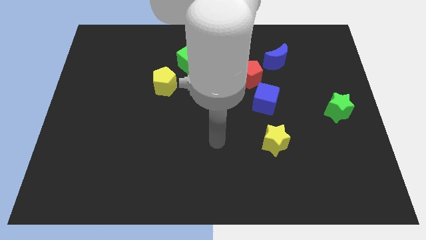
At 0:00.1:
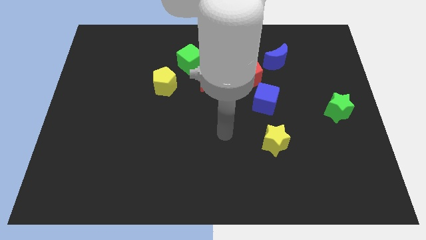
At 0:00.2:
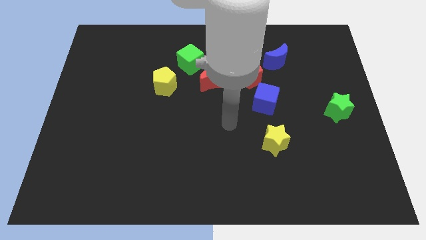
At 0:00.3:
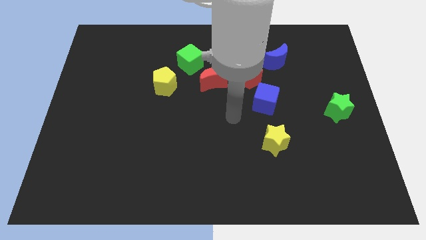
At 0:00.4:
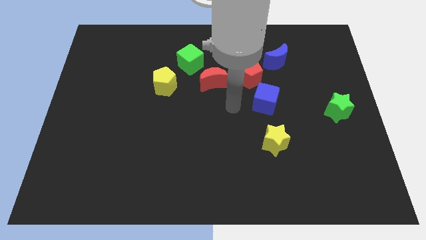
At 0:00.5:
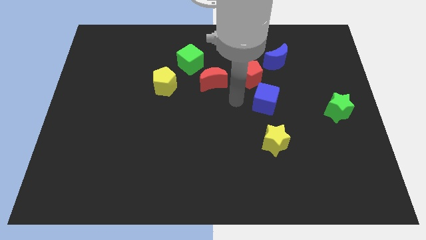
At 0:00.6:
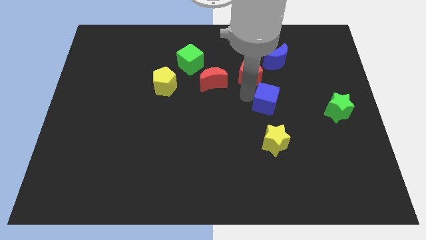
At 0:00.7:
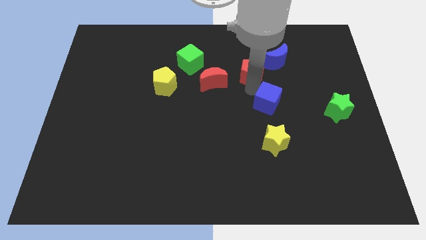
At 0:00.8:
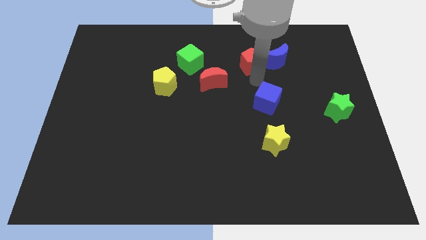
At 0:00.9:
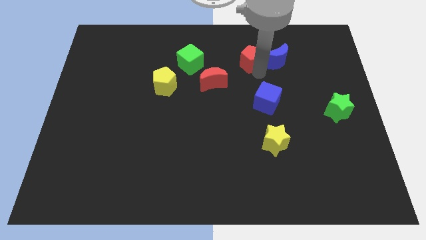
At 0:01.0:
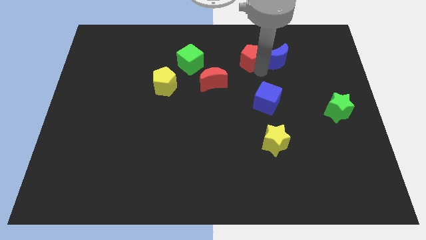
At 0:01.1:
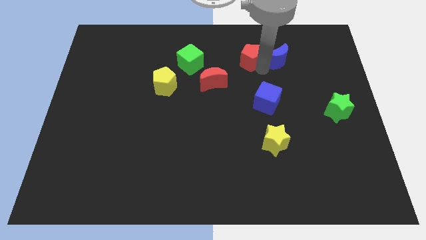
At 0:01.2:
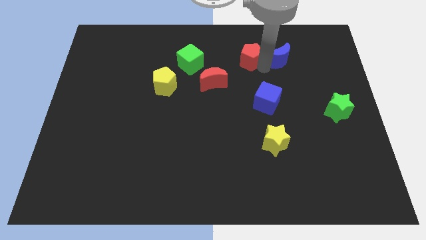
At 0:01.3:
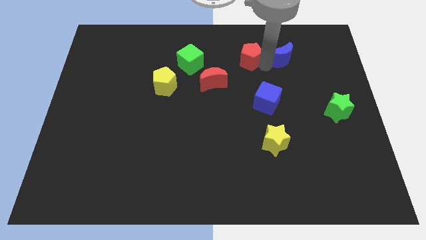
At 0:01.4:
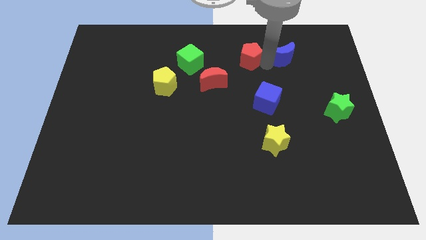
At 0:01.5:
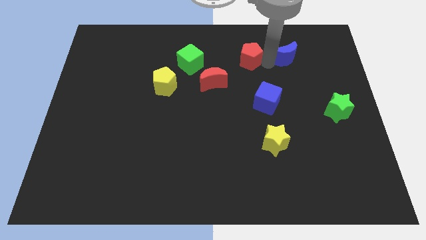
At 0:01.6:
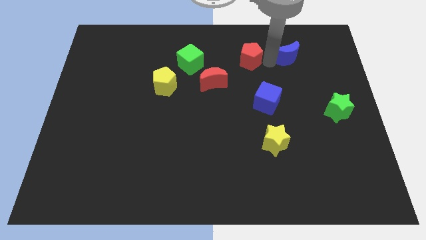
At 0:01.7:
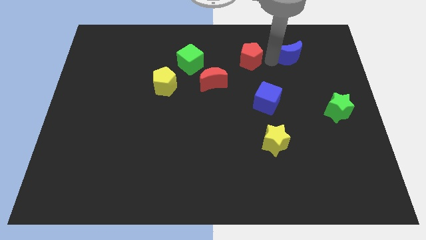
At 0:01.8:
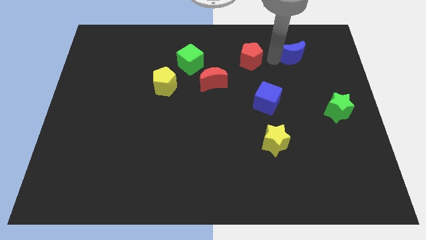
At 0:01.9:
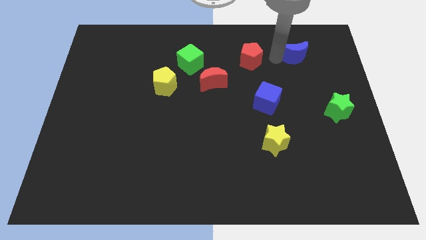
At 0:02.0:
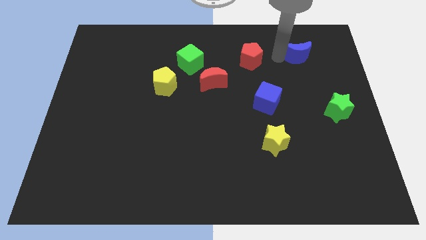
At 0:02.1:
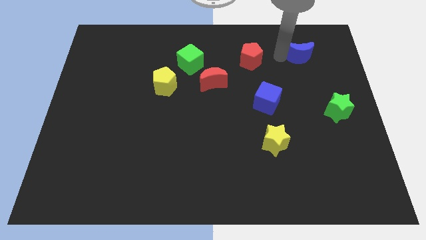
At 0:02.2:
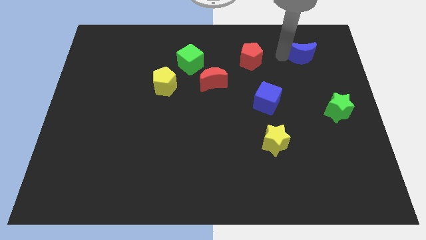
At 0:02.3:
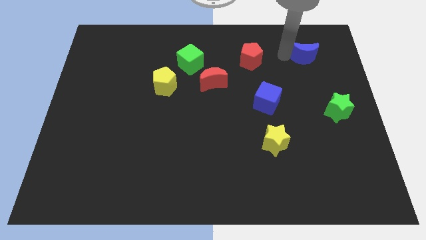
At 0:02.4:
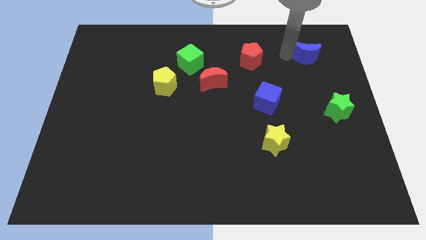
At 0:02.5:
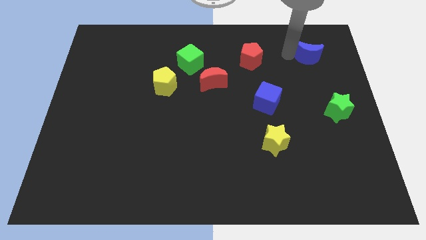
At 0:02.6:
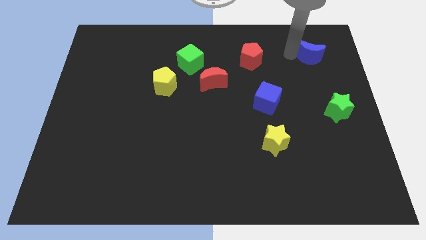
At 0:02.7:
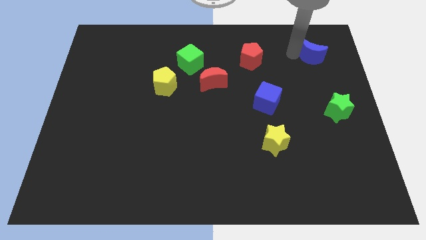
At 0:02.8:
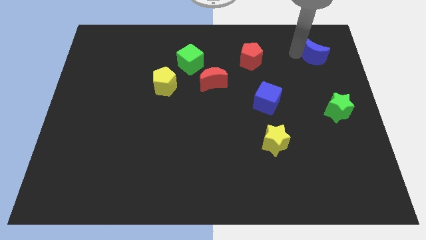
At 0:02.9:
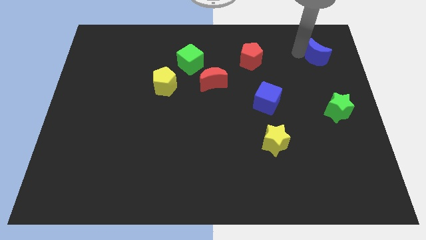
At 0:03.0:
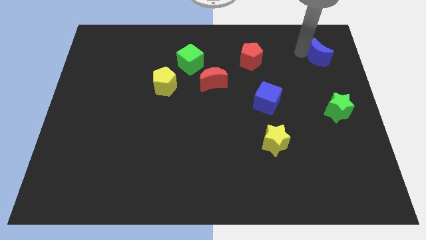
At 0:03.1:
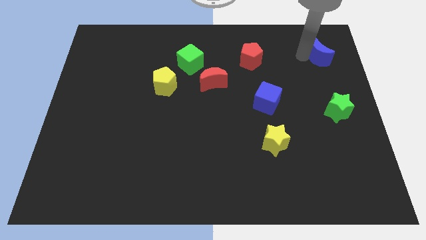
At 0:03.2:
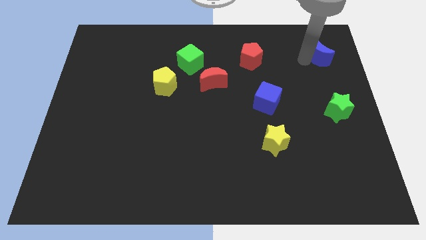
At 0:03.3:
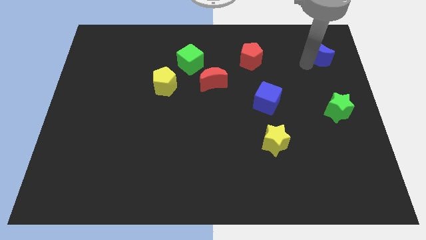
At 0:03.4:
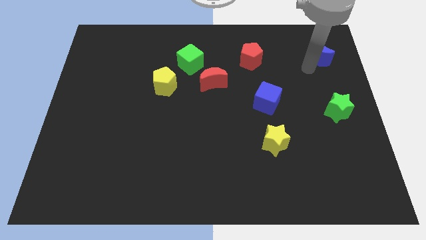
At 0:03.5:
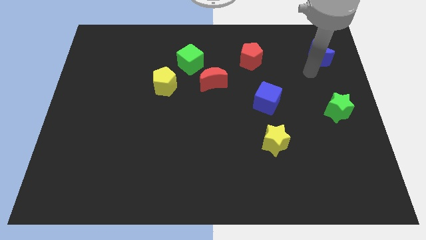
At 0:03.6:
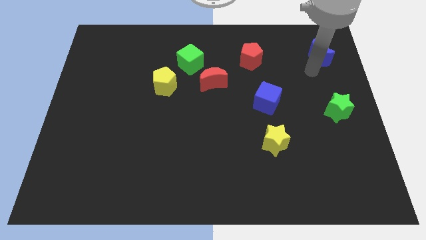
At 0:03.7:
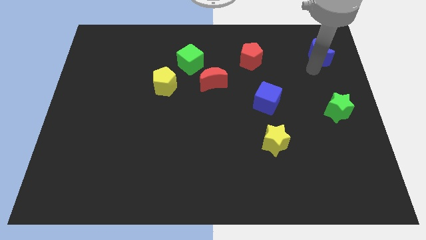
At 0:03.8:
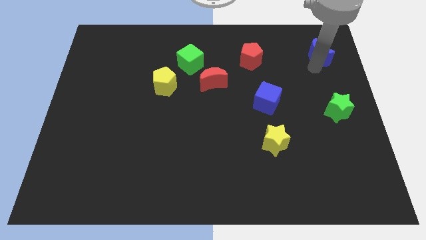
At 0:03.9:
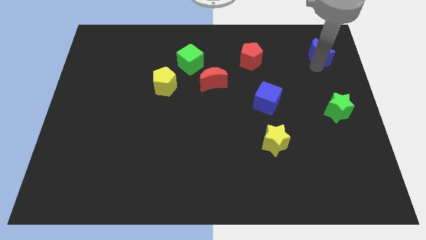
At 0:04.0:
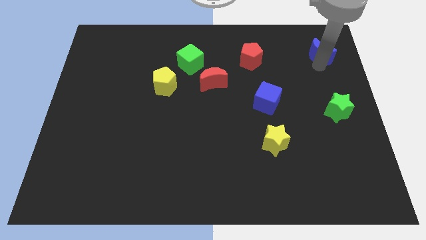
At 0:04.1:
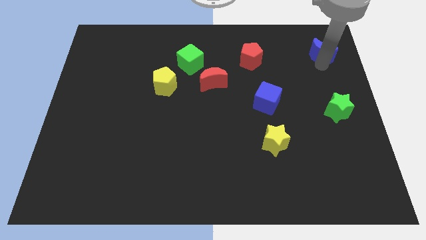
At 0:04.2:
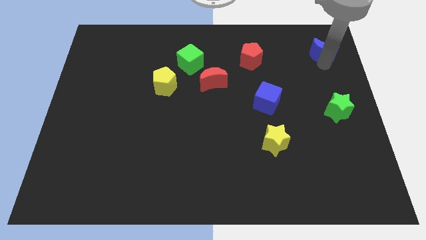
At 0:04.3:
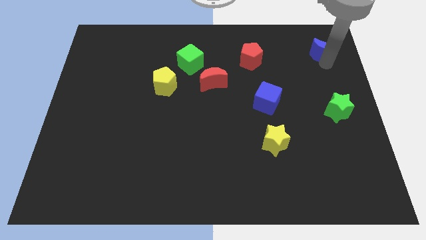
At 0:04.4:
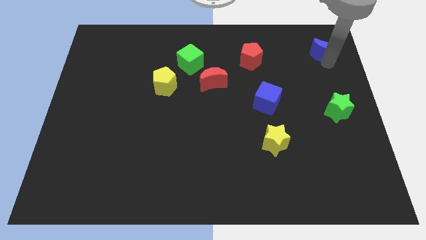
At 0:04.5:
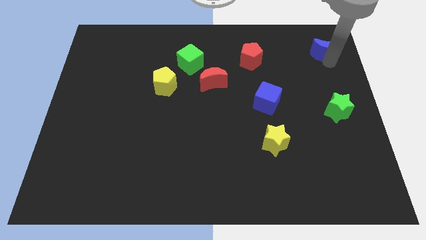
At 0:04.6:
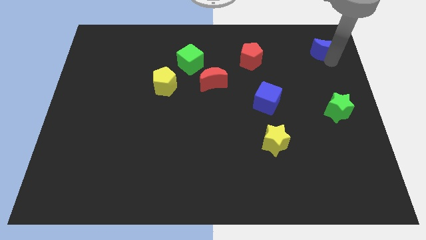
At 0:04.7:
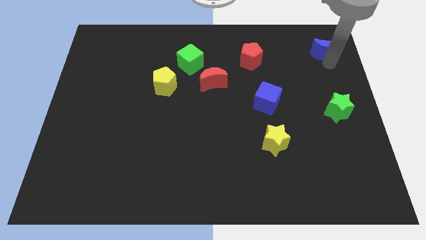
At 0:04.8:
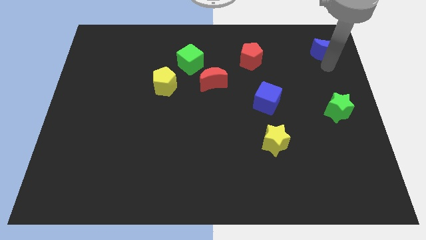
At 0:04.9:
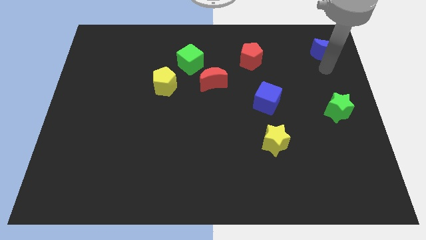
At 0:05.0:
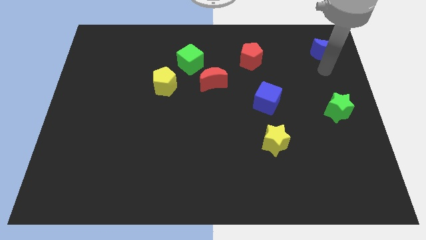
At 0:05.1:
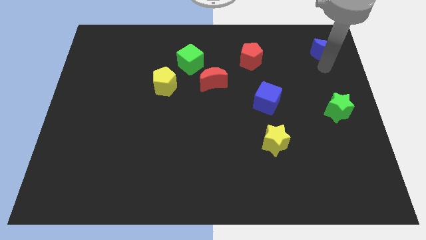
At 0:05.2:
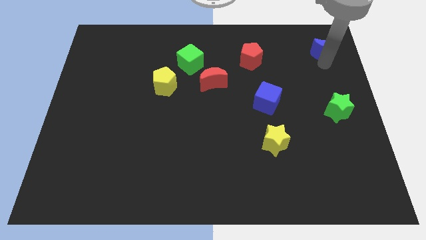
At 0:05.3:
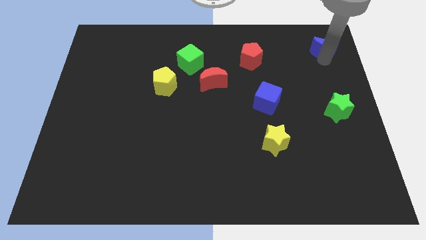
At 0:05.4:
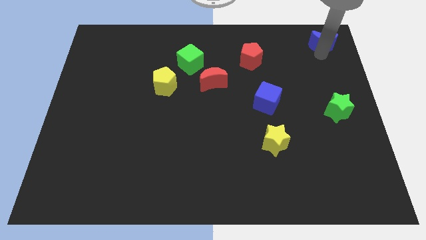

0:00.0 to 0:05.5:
put the blue moon to the top right corner

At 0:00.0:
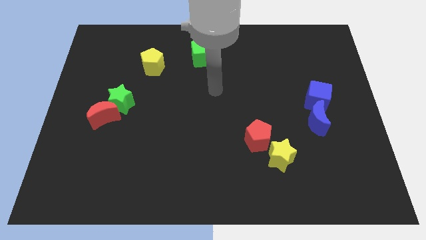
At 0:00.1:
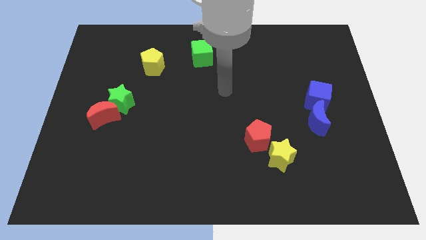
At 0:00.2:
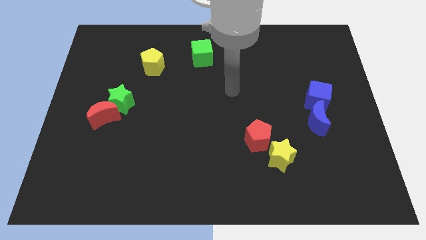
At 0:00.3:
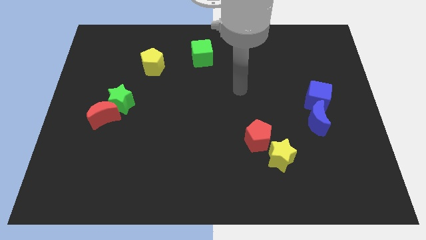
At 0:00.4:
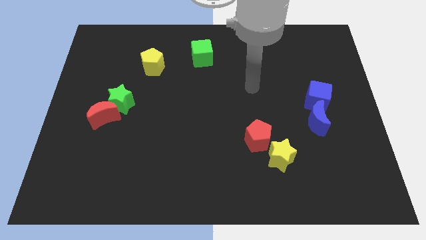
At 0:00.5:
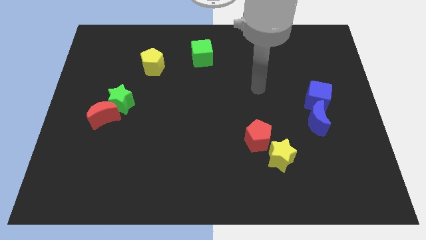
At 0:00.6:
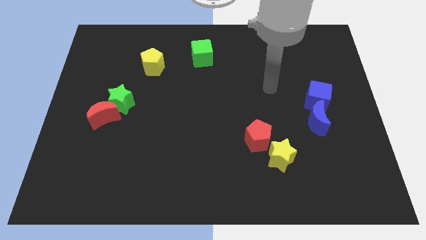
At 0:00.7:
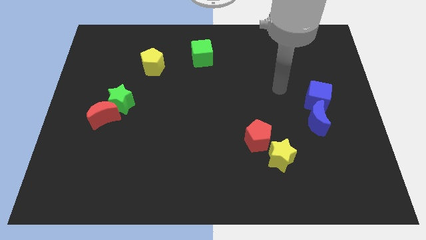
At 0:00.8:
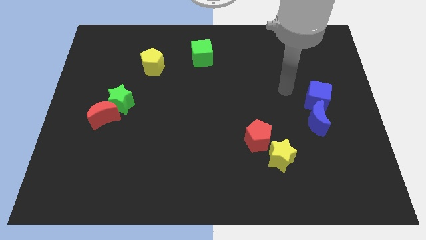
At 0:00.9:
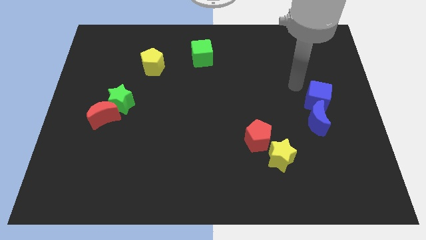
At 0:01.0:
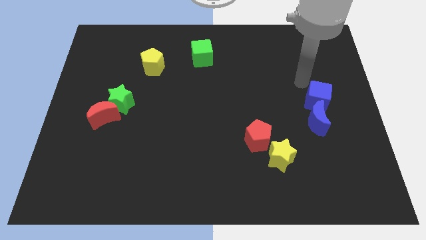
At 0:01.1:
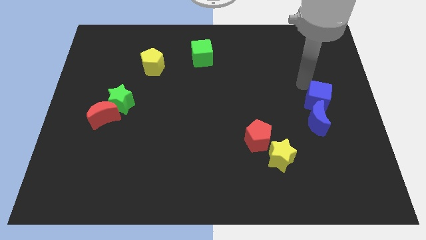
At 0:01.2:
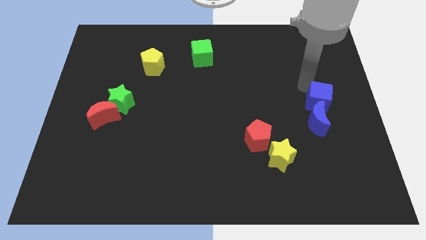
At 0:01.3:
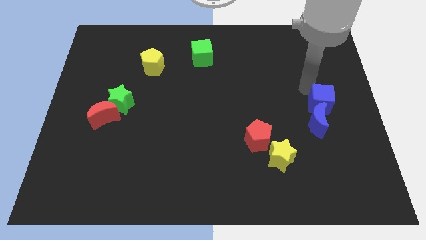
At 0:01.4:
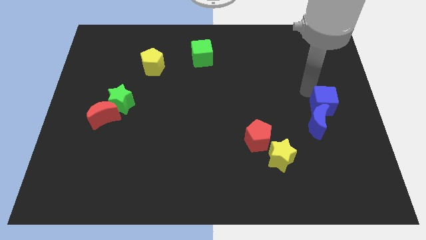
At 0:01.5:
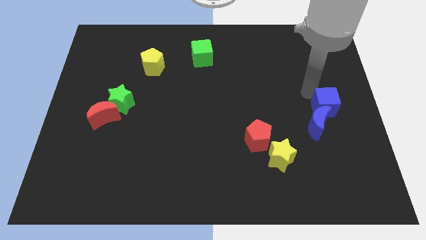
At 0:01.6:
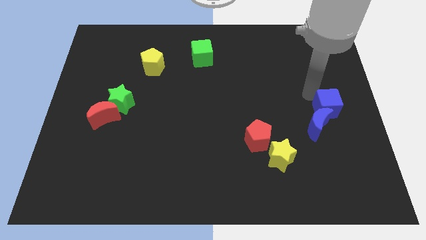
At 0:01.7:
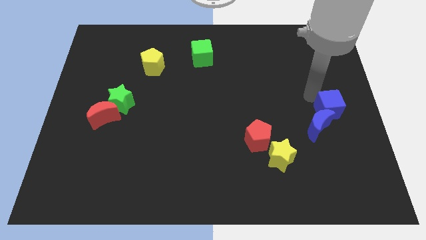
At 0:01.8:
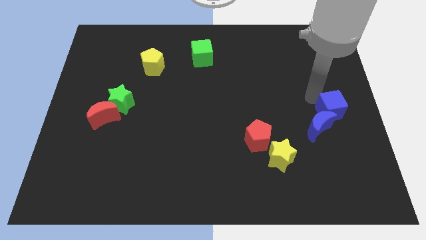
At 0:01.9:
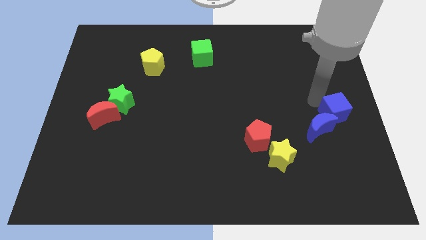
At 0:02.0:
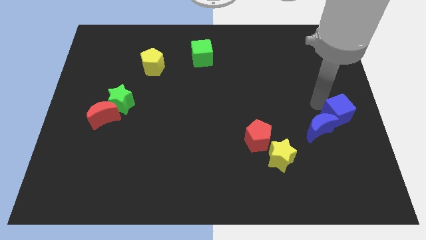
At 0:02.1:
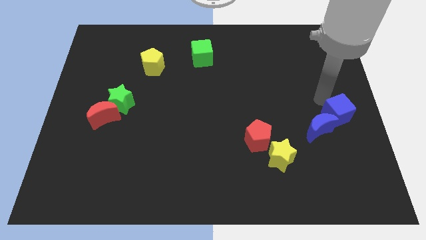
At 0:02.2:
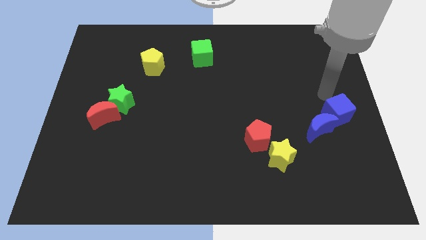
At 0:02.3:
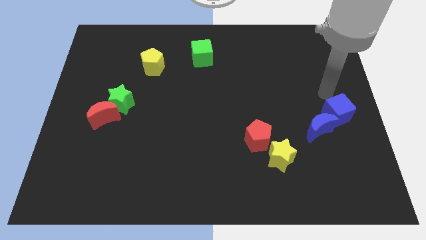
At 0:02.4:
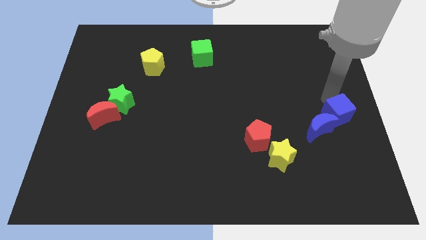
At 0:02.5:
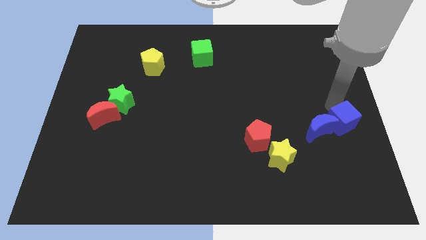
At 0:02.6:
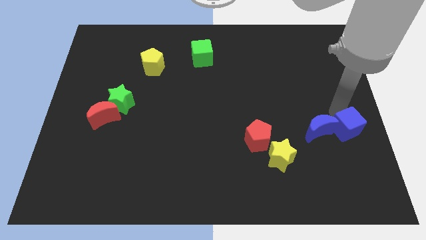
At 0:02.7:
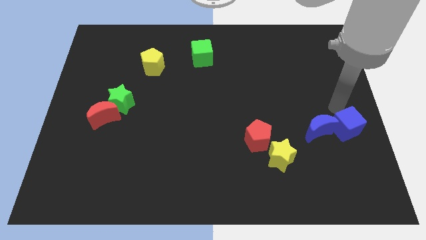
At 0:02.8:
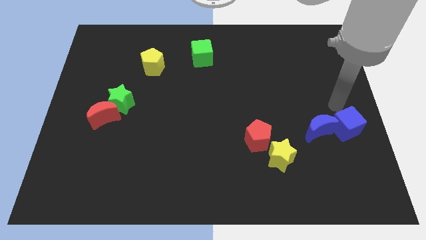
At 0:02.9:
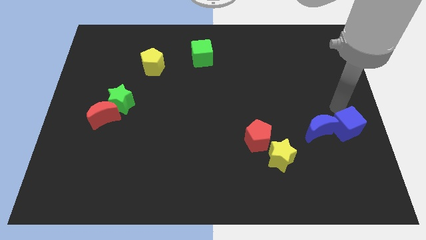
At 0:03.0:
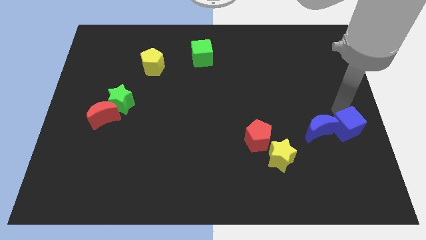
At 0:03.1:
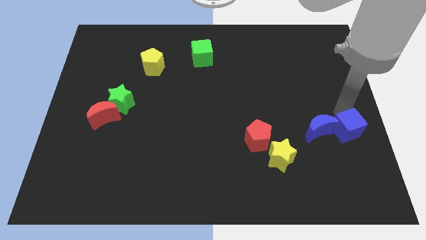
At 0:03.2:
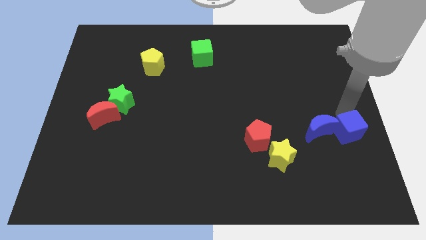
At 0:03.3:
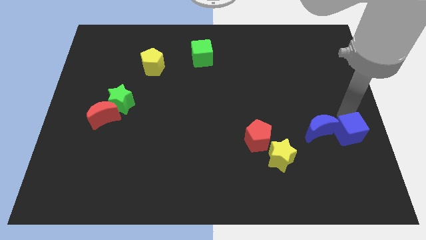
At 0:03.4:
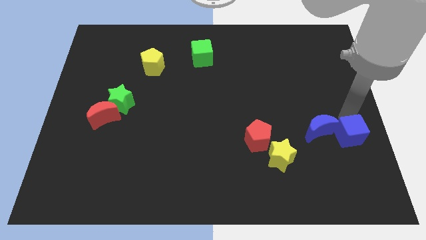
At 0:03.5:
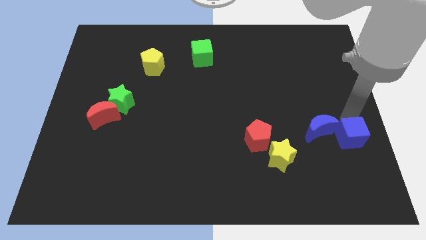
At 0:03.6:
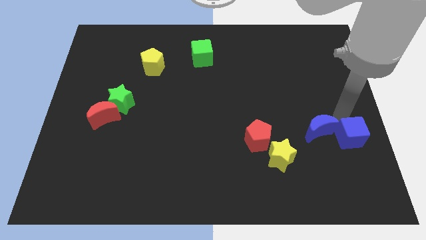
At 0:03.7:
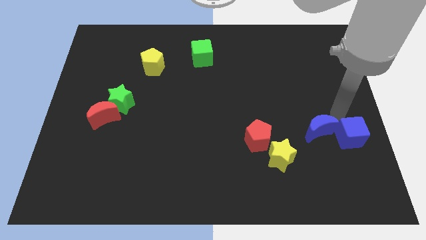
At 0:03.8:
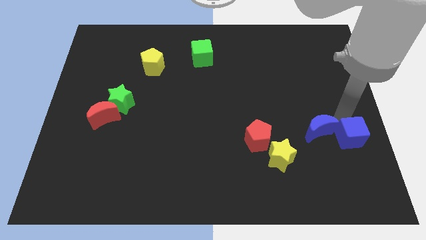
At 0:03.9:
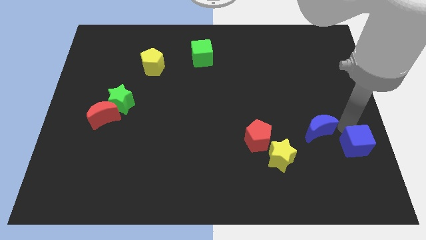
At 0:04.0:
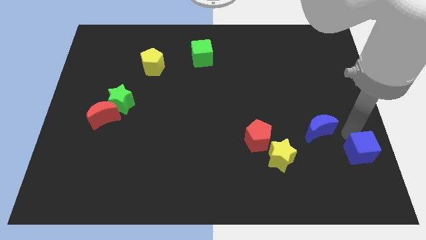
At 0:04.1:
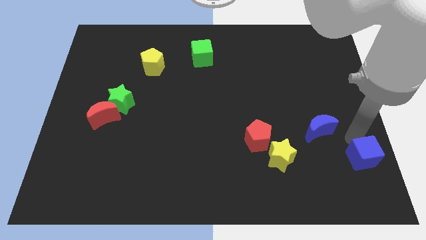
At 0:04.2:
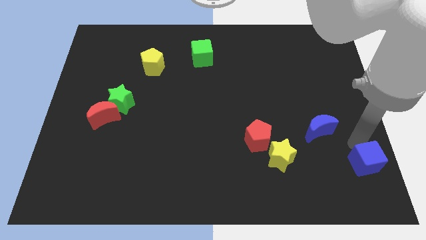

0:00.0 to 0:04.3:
move the blue cube to the bottom right of the board
